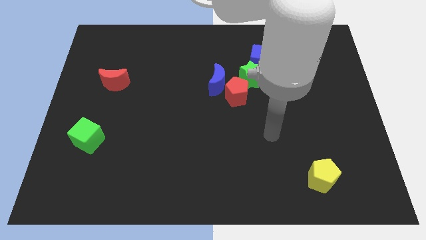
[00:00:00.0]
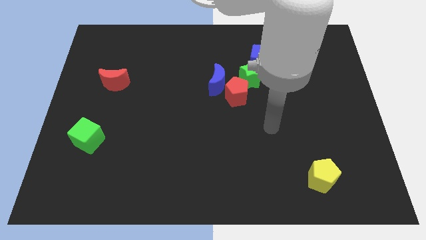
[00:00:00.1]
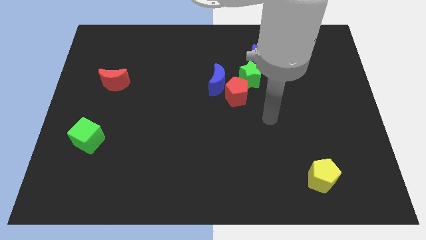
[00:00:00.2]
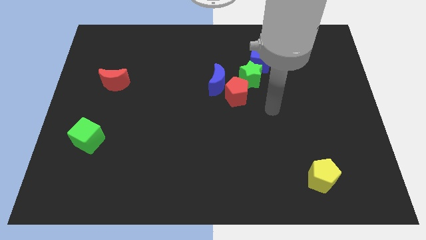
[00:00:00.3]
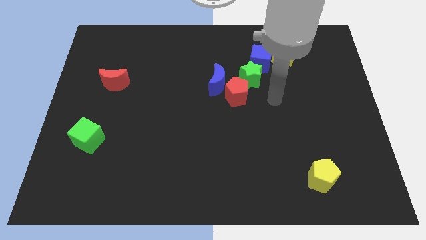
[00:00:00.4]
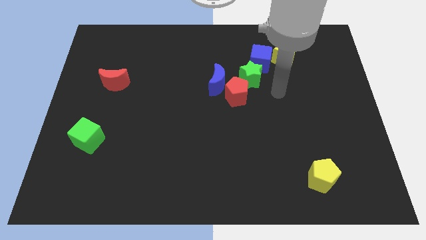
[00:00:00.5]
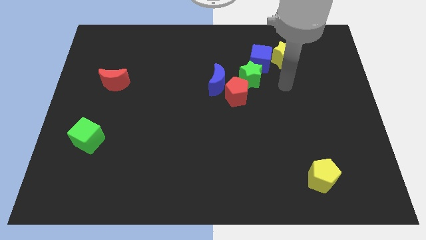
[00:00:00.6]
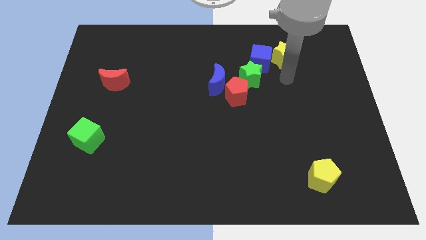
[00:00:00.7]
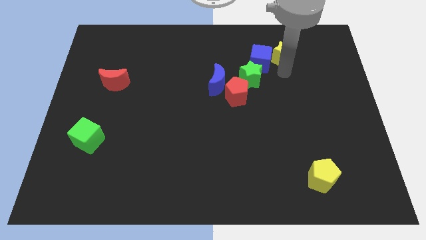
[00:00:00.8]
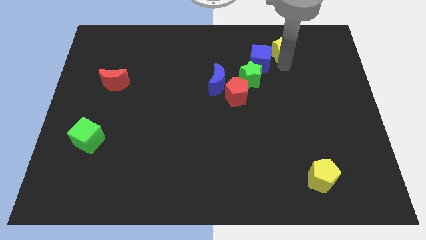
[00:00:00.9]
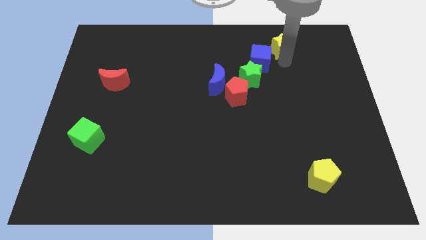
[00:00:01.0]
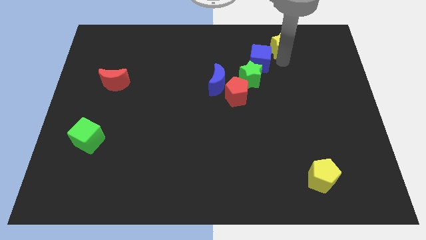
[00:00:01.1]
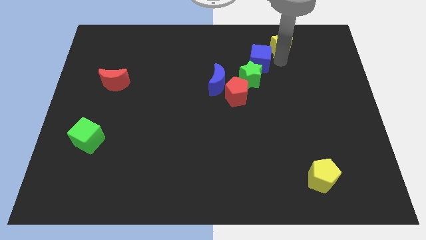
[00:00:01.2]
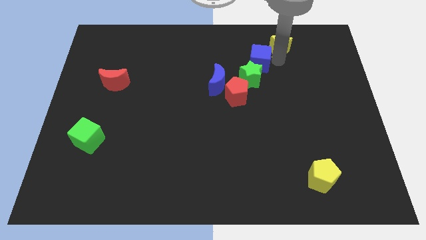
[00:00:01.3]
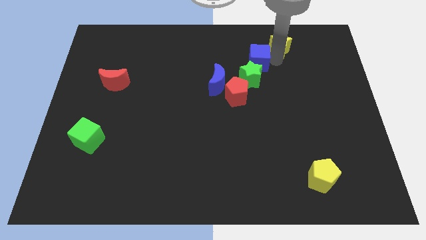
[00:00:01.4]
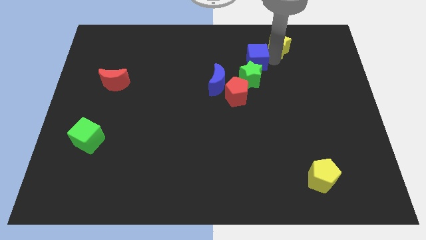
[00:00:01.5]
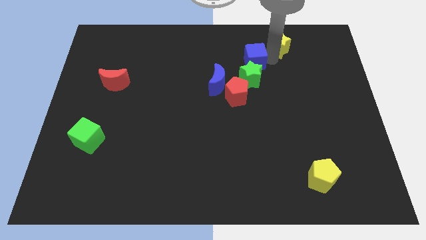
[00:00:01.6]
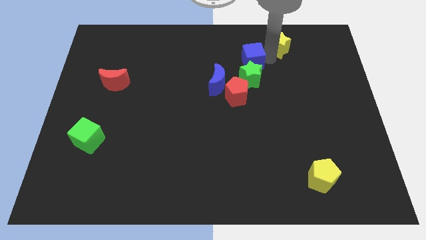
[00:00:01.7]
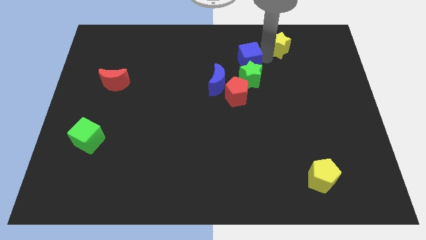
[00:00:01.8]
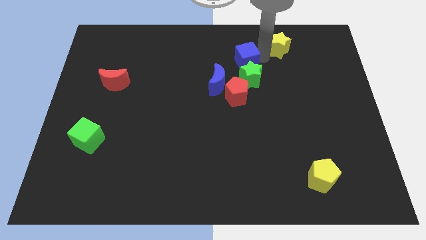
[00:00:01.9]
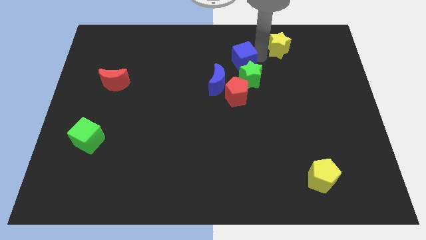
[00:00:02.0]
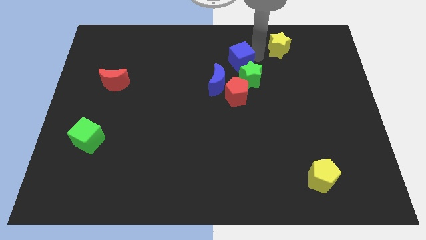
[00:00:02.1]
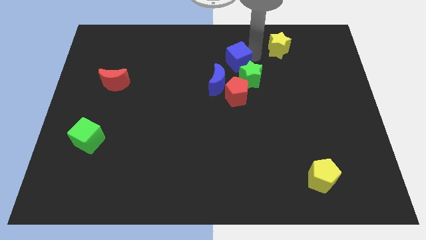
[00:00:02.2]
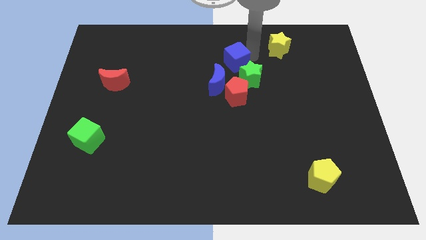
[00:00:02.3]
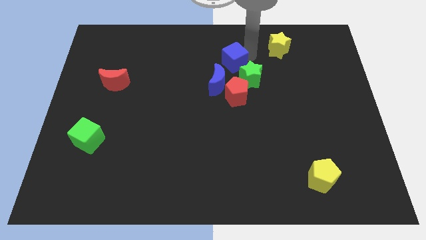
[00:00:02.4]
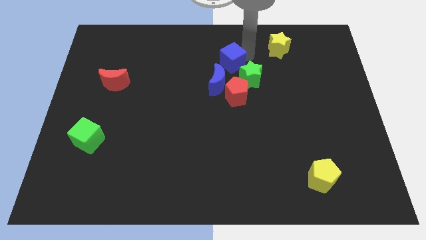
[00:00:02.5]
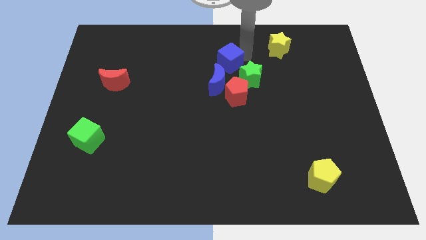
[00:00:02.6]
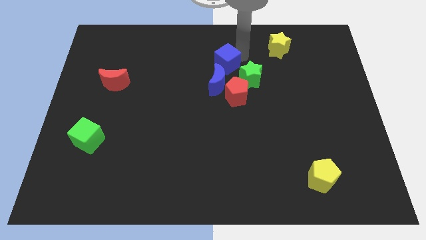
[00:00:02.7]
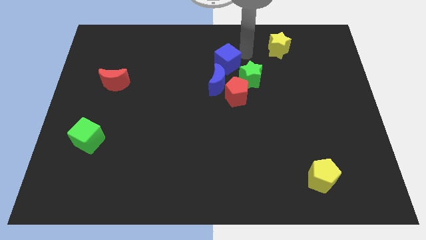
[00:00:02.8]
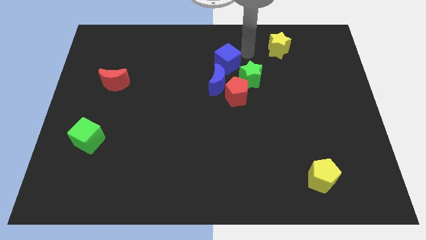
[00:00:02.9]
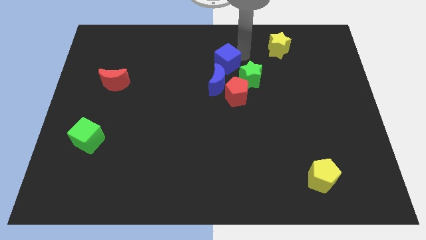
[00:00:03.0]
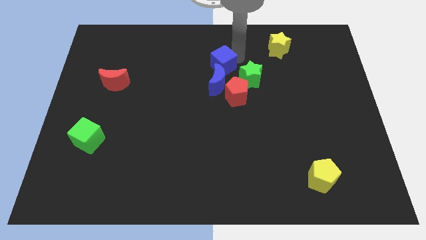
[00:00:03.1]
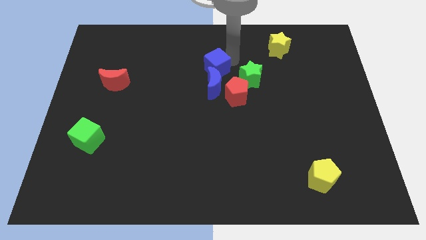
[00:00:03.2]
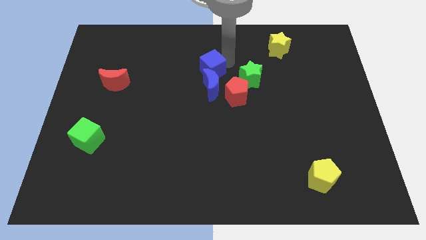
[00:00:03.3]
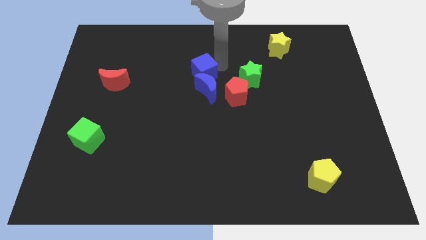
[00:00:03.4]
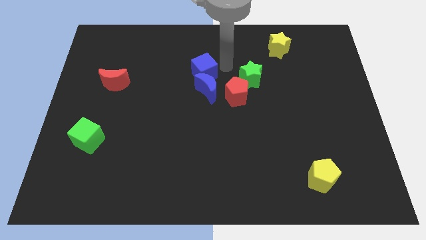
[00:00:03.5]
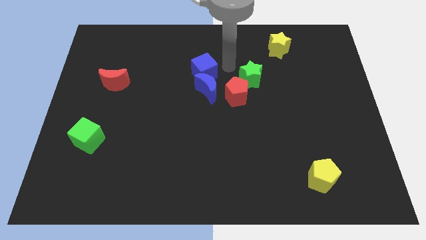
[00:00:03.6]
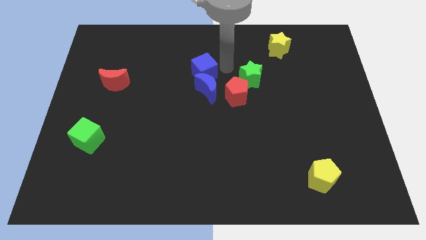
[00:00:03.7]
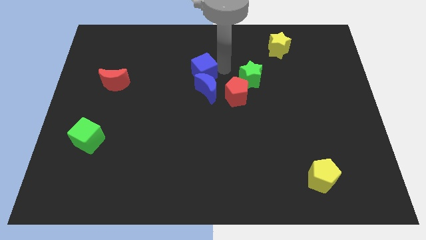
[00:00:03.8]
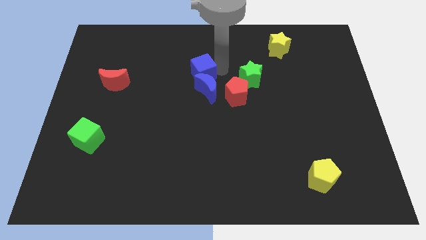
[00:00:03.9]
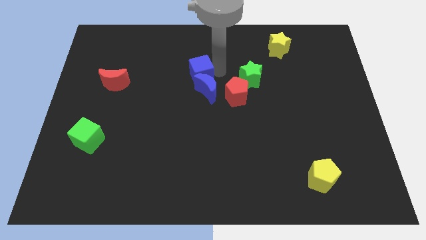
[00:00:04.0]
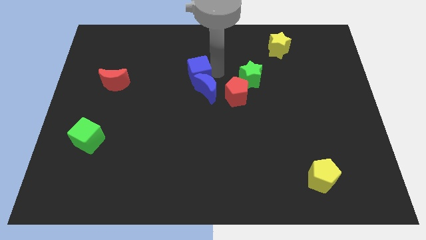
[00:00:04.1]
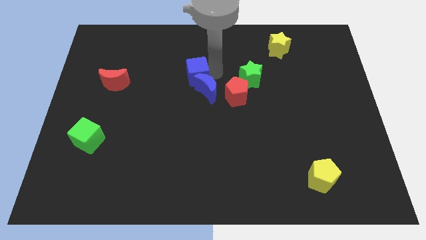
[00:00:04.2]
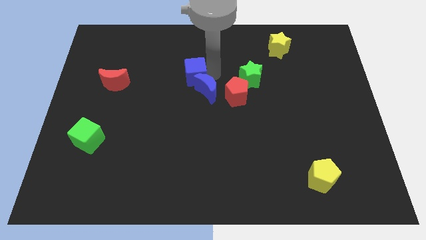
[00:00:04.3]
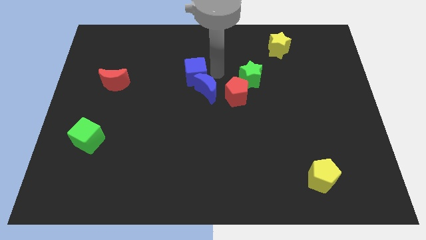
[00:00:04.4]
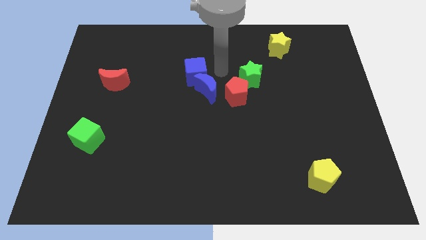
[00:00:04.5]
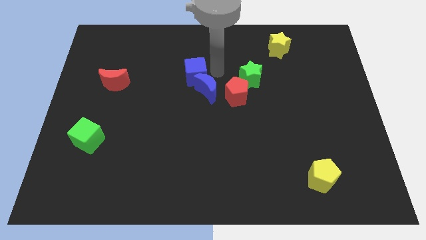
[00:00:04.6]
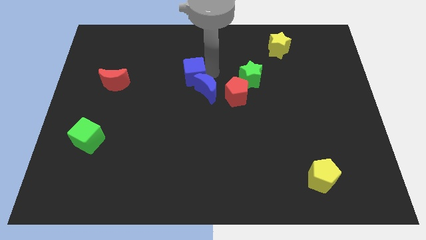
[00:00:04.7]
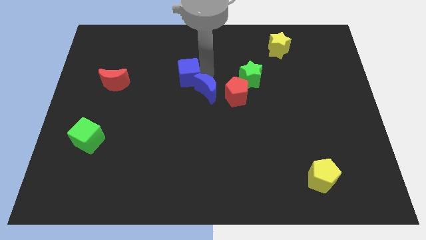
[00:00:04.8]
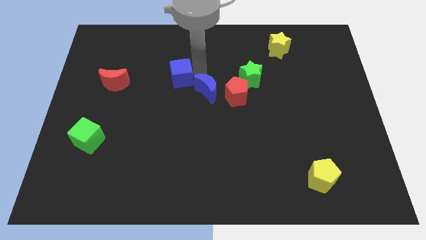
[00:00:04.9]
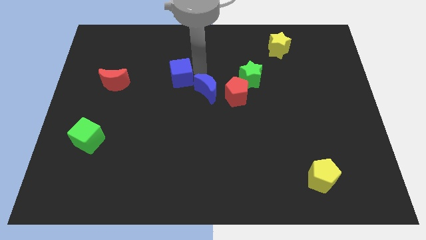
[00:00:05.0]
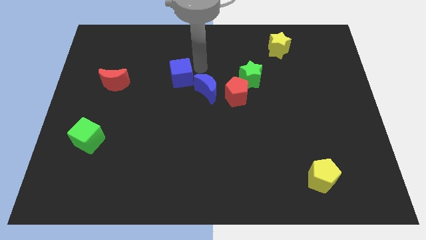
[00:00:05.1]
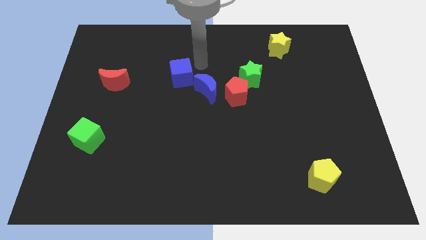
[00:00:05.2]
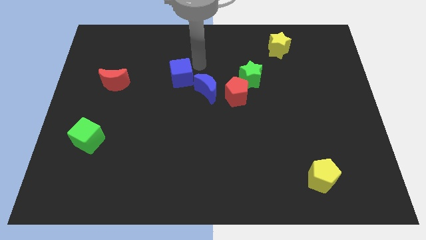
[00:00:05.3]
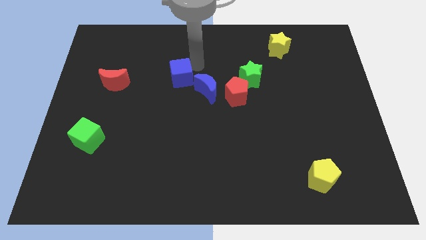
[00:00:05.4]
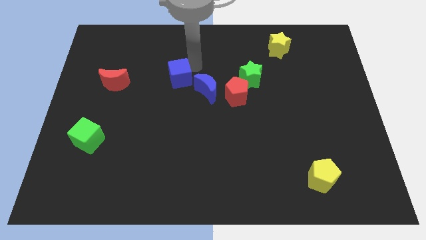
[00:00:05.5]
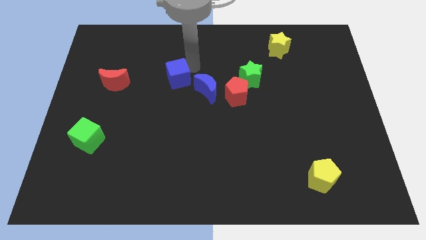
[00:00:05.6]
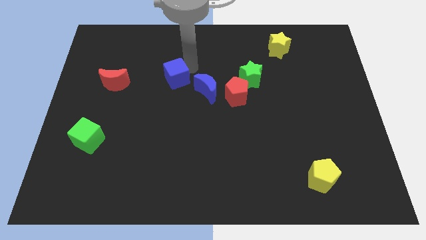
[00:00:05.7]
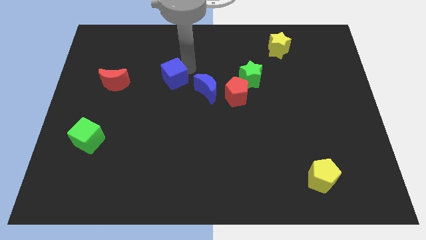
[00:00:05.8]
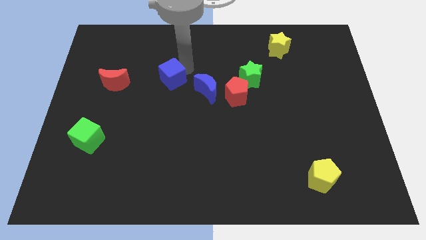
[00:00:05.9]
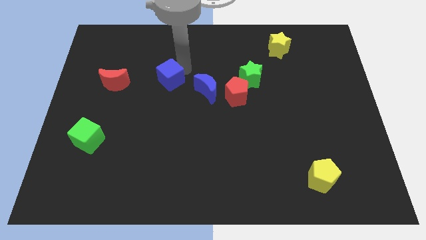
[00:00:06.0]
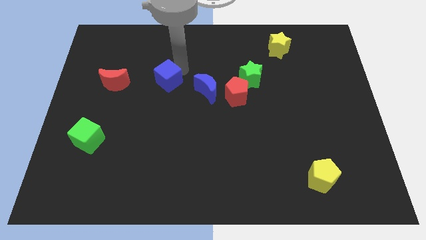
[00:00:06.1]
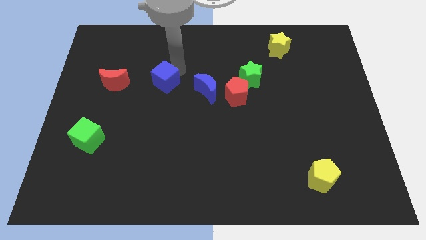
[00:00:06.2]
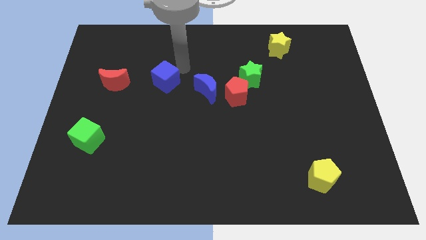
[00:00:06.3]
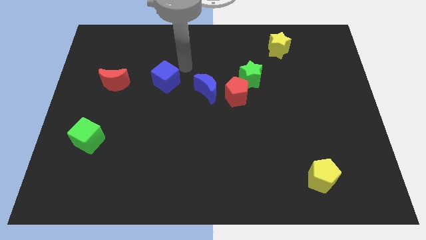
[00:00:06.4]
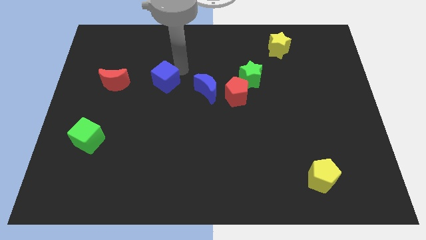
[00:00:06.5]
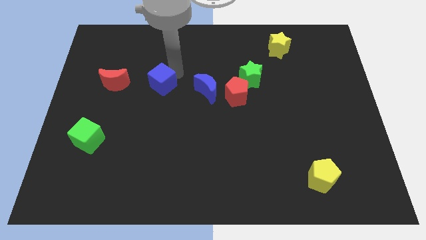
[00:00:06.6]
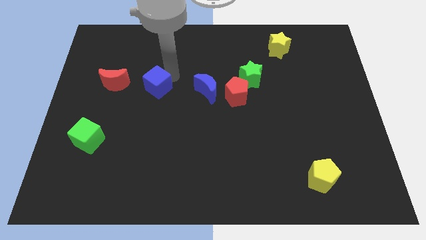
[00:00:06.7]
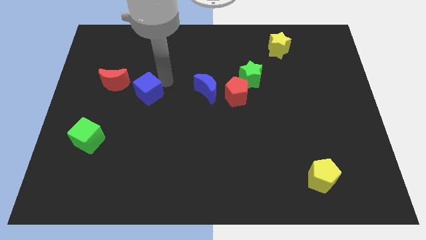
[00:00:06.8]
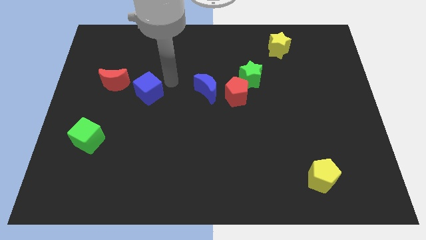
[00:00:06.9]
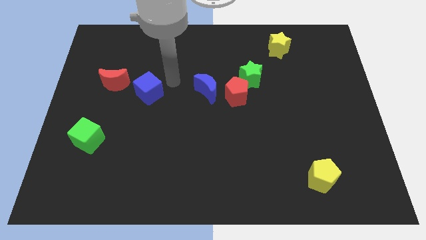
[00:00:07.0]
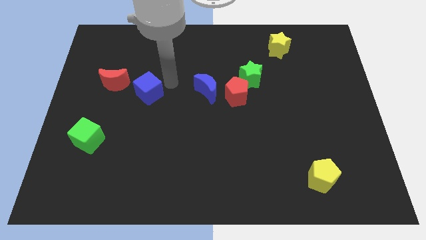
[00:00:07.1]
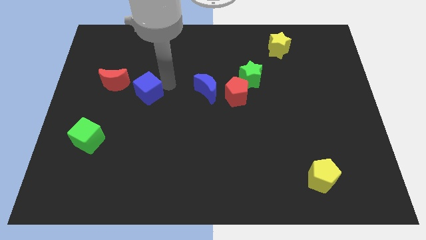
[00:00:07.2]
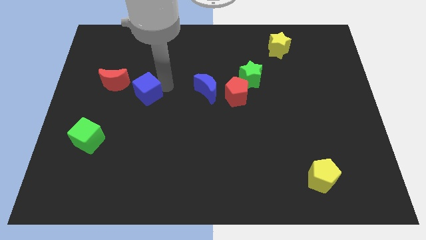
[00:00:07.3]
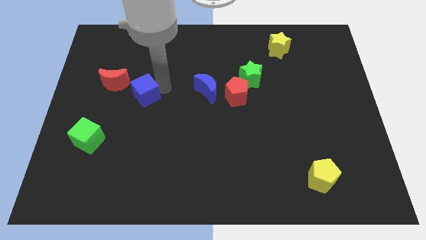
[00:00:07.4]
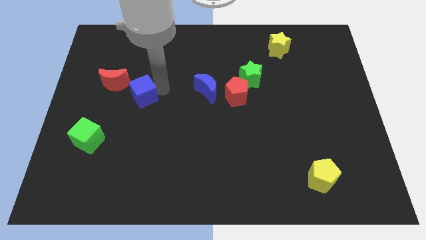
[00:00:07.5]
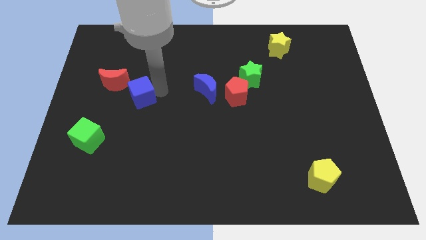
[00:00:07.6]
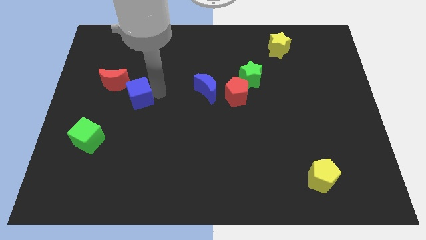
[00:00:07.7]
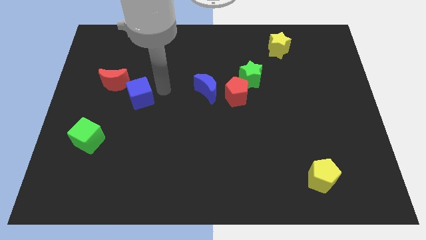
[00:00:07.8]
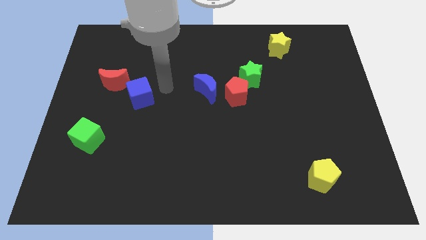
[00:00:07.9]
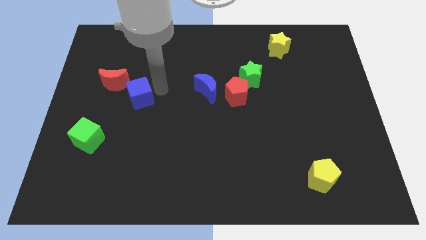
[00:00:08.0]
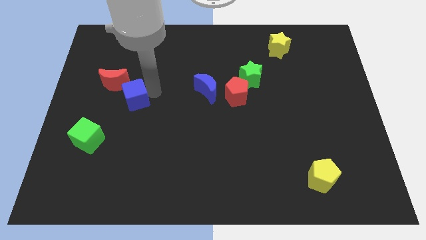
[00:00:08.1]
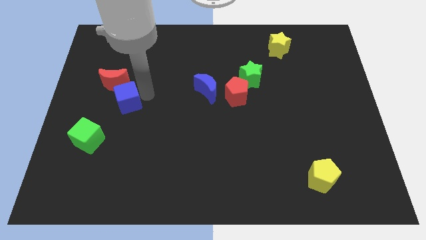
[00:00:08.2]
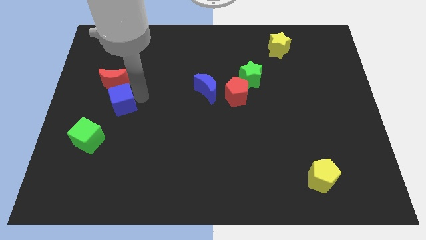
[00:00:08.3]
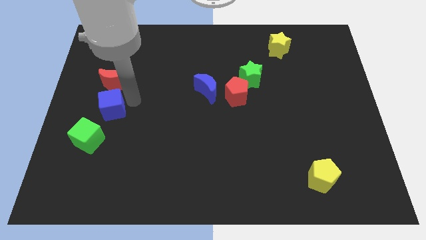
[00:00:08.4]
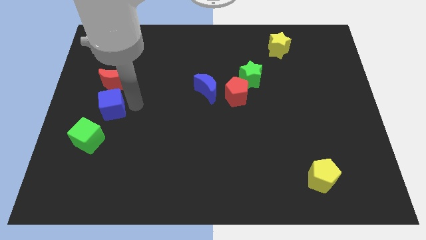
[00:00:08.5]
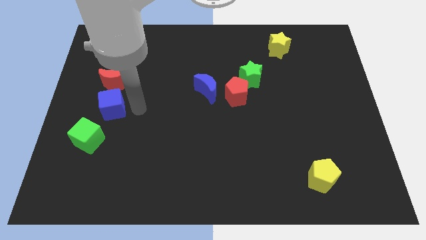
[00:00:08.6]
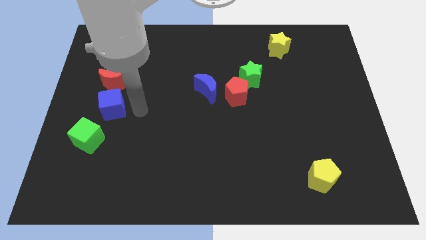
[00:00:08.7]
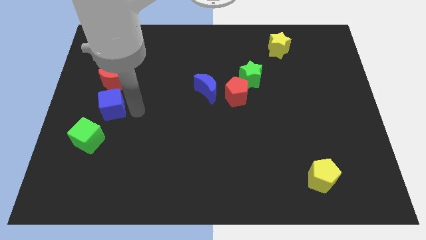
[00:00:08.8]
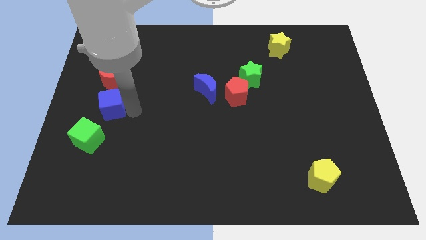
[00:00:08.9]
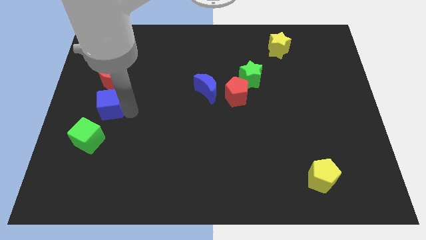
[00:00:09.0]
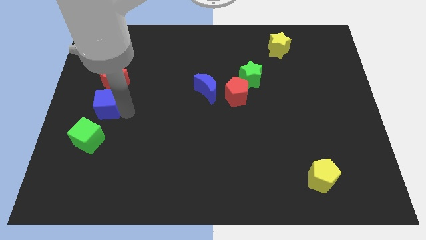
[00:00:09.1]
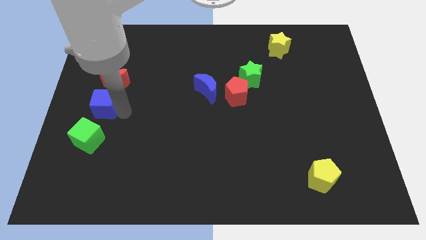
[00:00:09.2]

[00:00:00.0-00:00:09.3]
put the blue cube to the left side of the board
